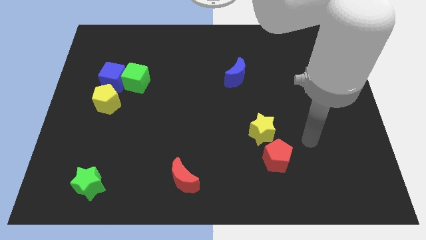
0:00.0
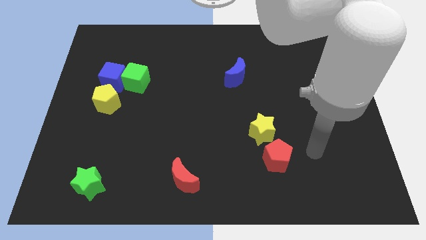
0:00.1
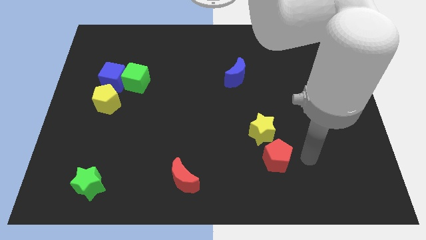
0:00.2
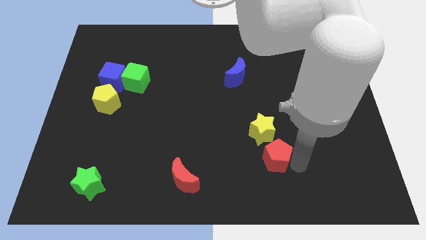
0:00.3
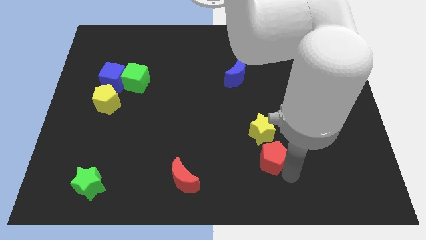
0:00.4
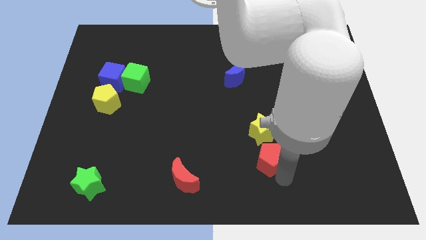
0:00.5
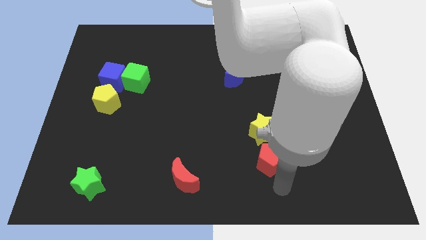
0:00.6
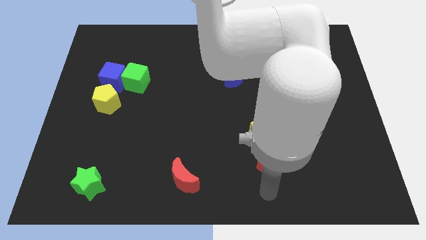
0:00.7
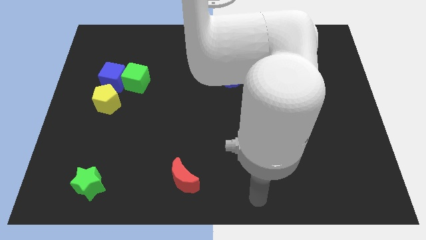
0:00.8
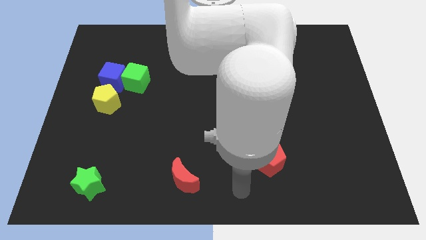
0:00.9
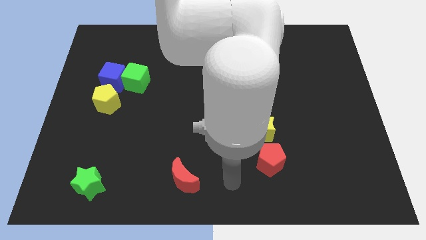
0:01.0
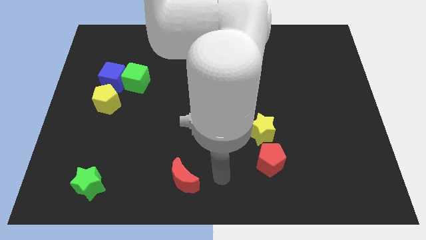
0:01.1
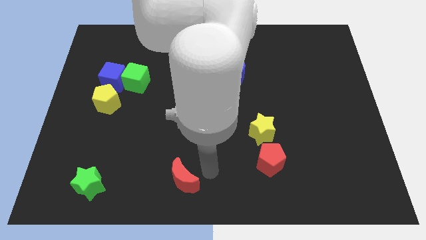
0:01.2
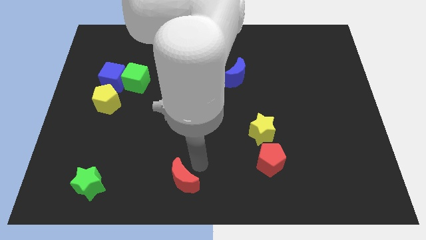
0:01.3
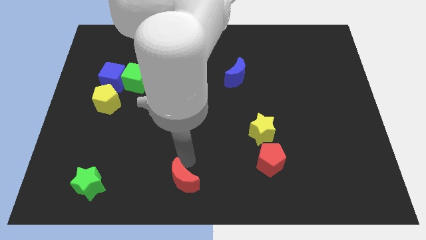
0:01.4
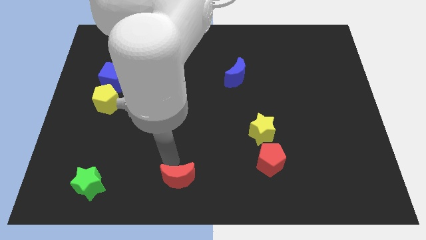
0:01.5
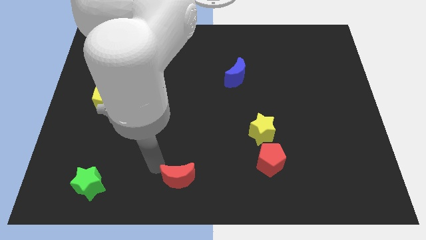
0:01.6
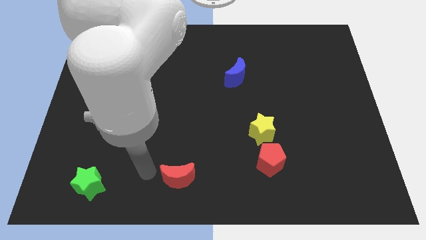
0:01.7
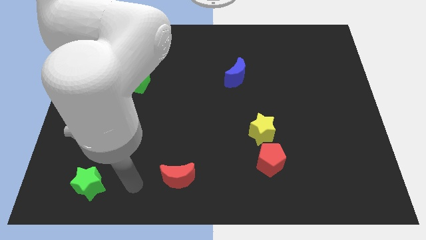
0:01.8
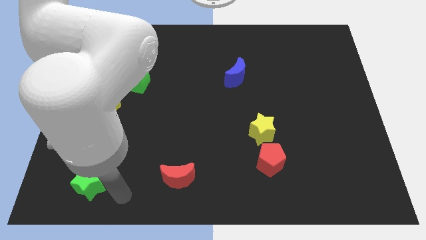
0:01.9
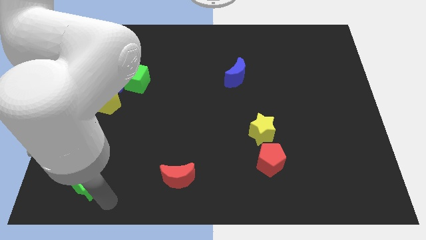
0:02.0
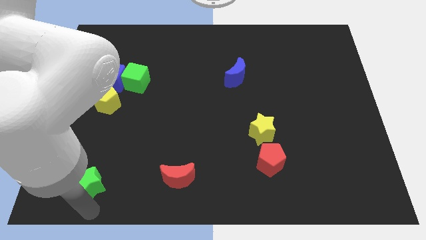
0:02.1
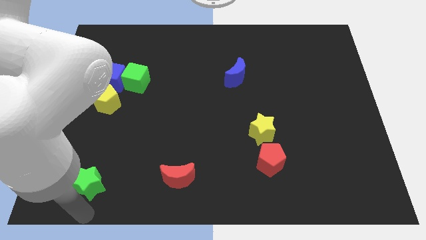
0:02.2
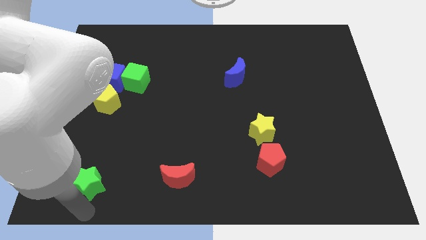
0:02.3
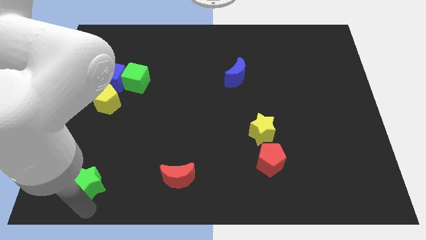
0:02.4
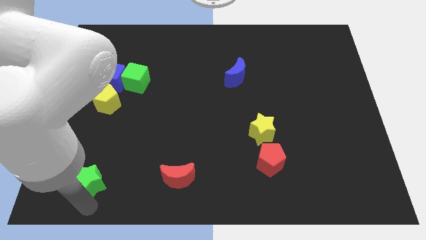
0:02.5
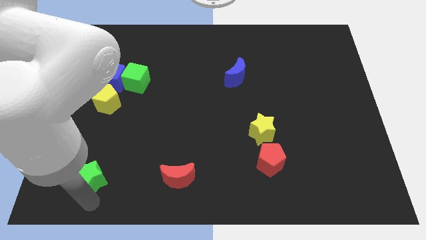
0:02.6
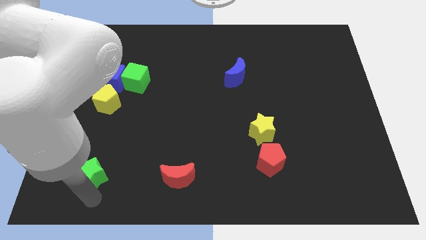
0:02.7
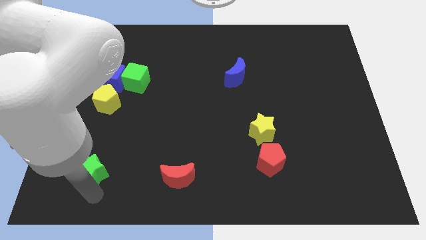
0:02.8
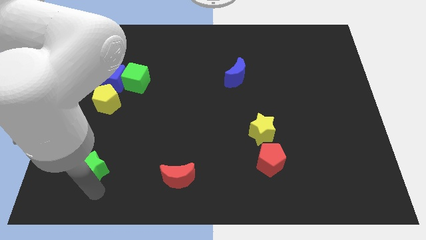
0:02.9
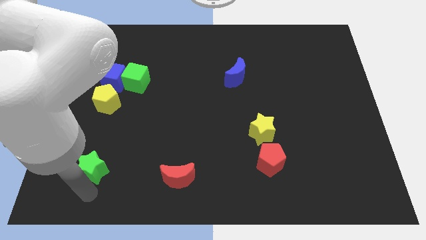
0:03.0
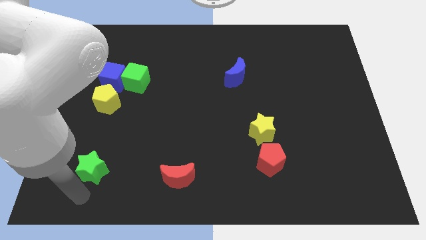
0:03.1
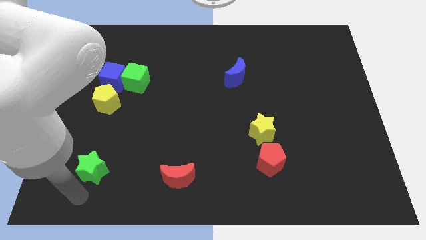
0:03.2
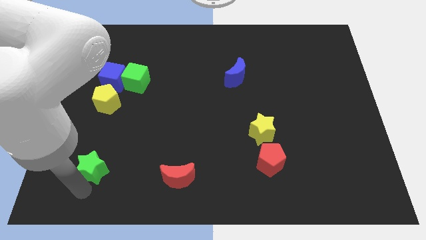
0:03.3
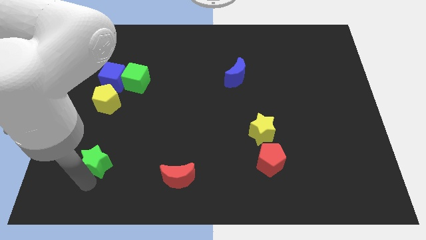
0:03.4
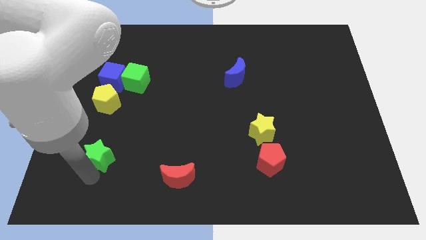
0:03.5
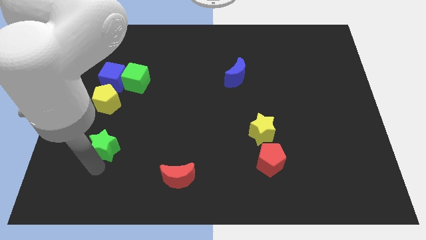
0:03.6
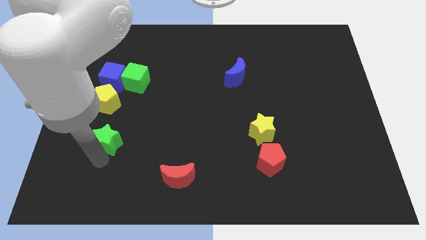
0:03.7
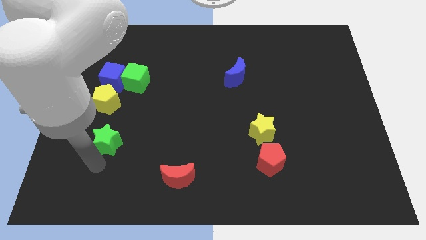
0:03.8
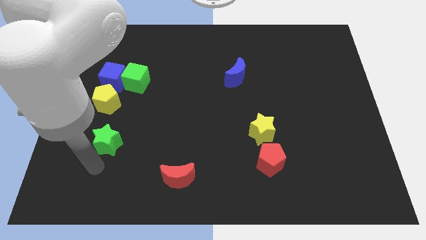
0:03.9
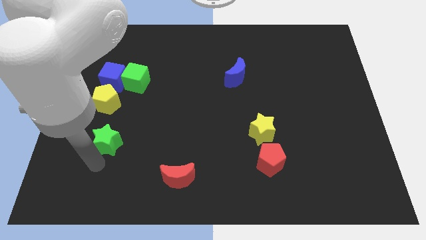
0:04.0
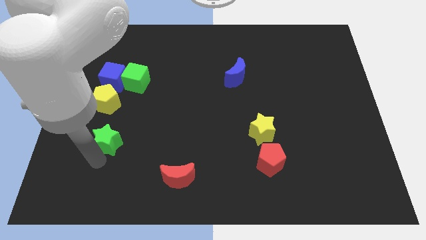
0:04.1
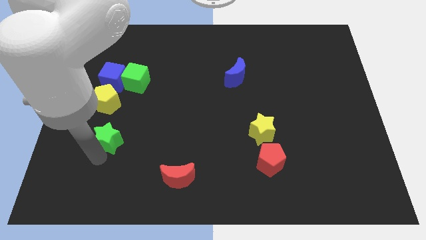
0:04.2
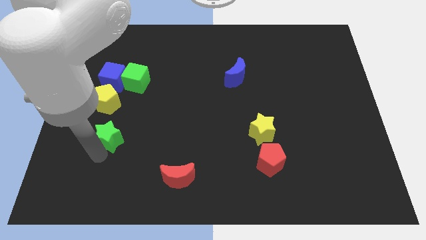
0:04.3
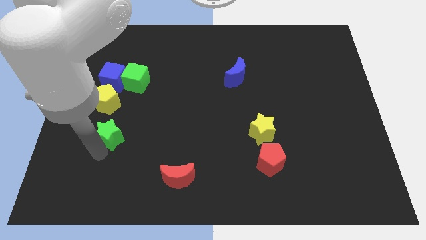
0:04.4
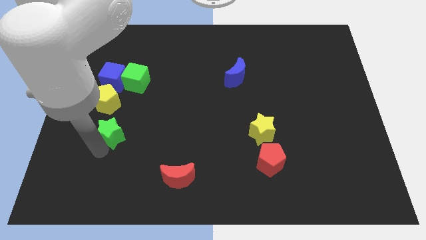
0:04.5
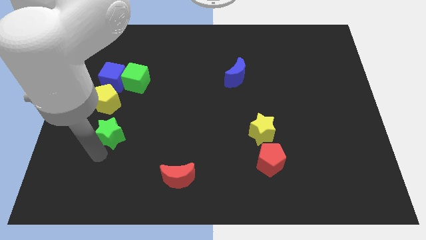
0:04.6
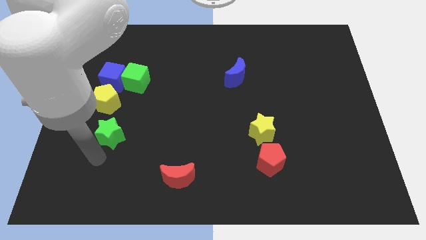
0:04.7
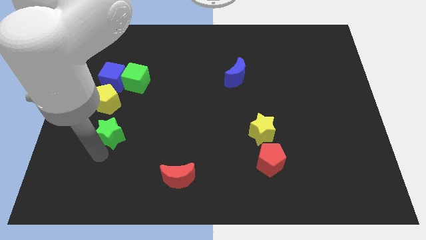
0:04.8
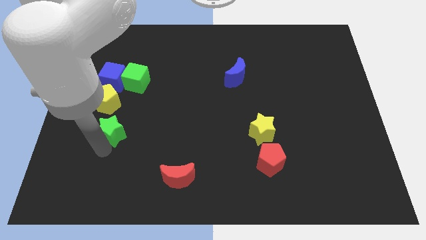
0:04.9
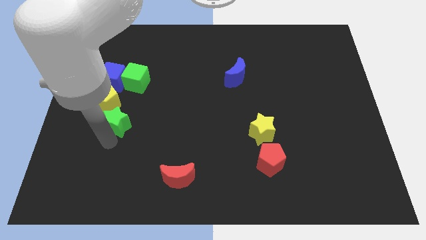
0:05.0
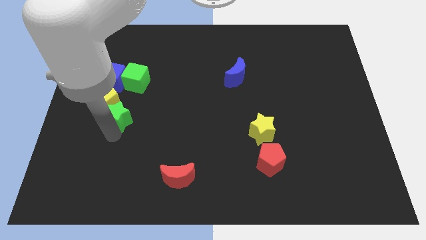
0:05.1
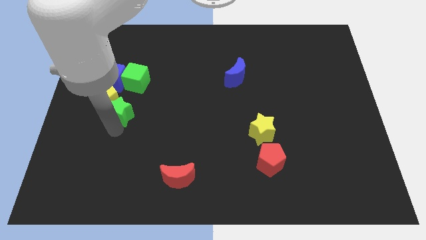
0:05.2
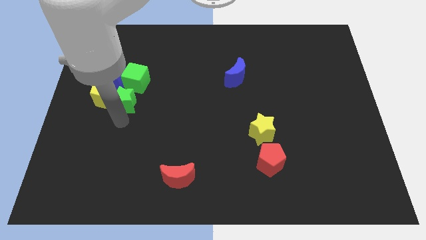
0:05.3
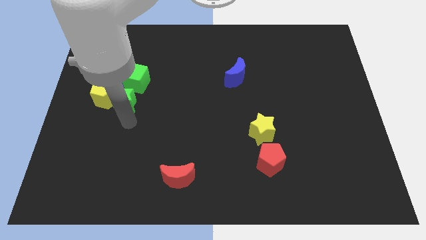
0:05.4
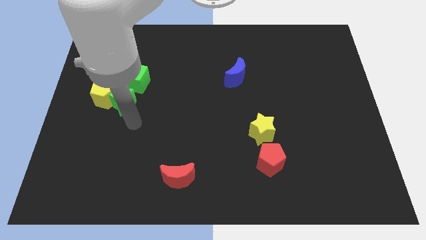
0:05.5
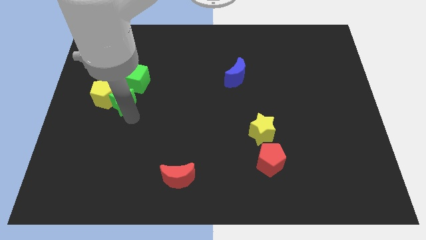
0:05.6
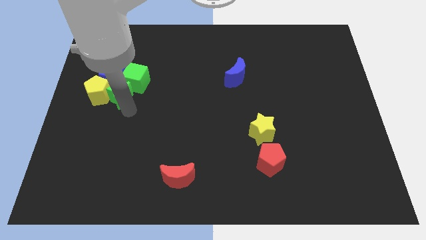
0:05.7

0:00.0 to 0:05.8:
push the green star towards the blue cube

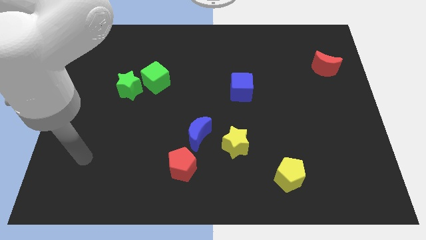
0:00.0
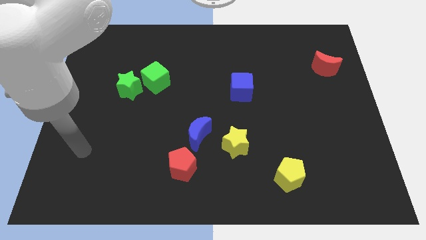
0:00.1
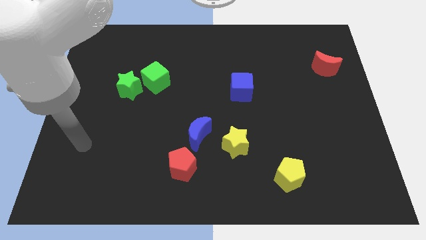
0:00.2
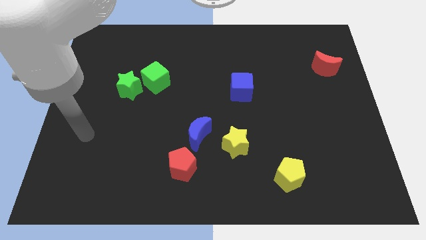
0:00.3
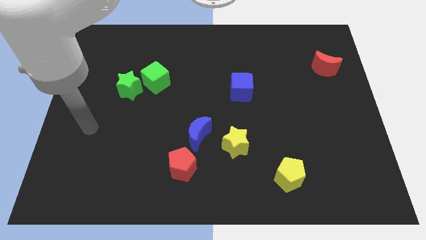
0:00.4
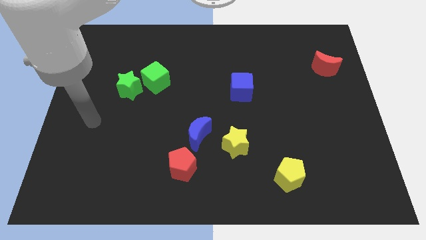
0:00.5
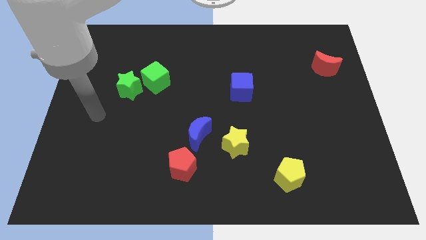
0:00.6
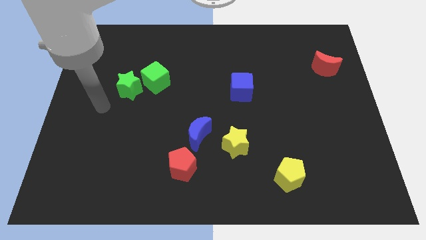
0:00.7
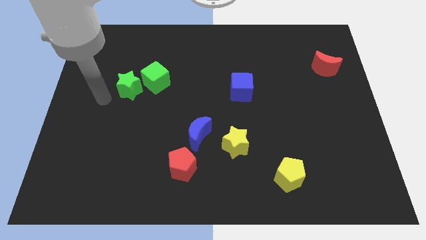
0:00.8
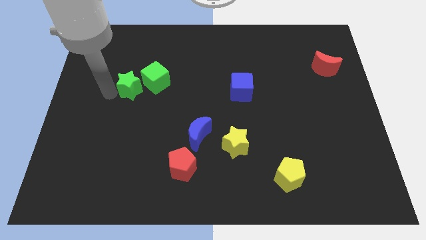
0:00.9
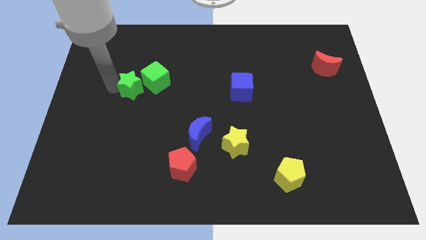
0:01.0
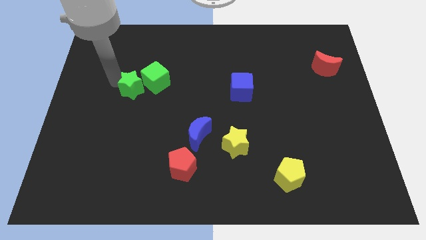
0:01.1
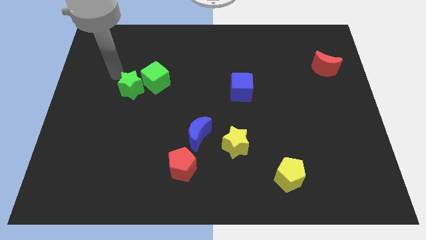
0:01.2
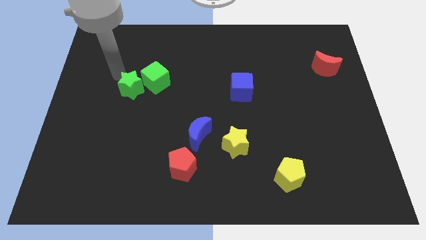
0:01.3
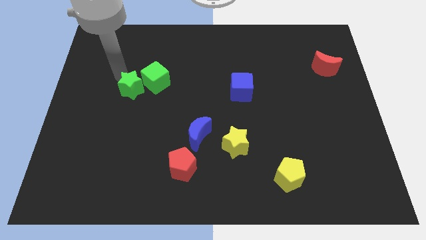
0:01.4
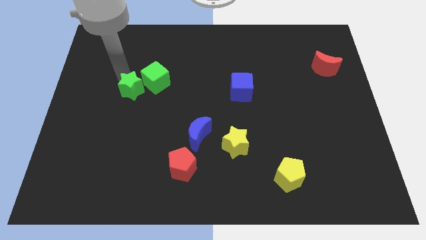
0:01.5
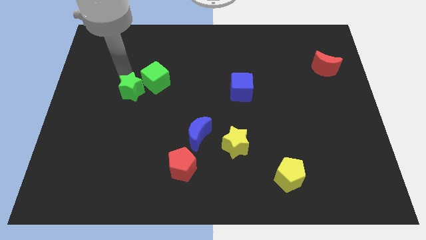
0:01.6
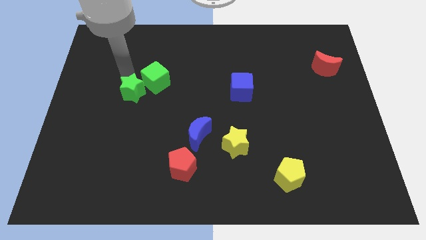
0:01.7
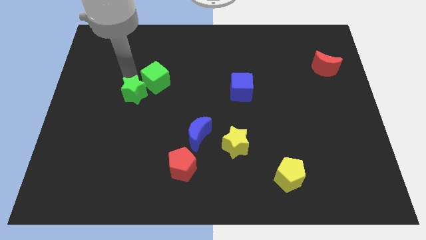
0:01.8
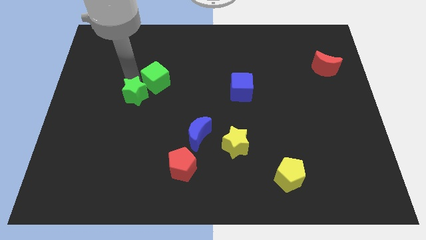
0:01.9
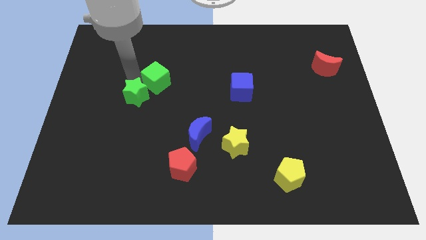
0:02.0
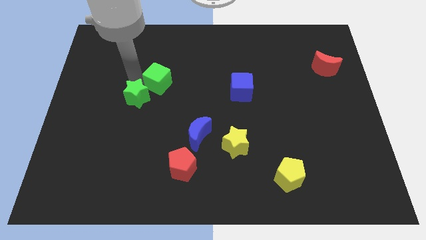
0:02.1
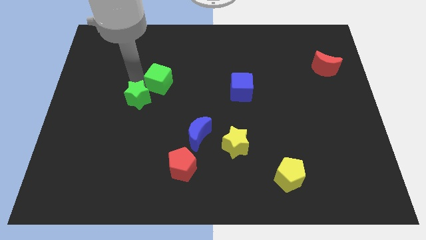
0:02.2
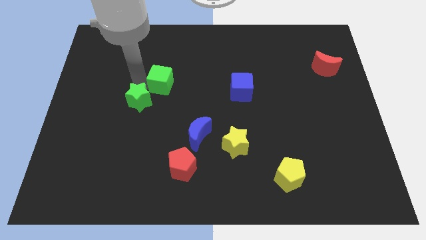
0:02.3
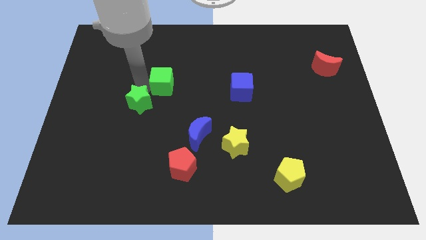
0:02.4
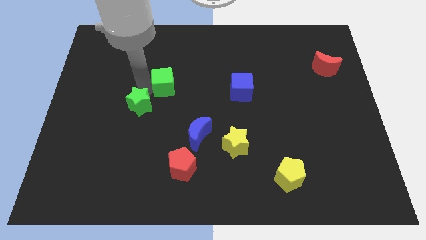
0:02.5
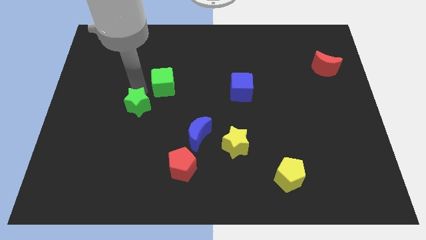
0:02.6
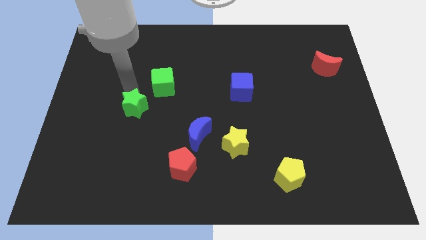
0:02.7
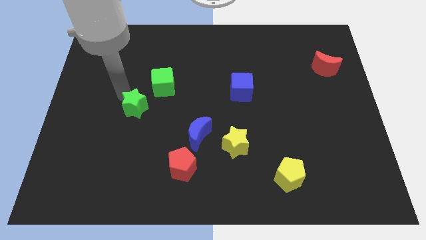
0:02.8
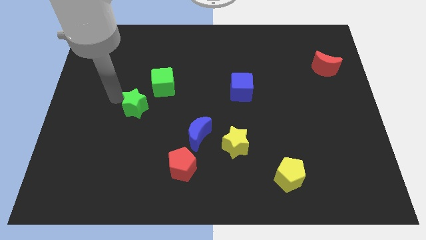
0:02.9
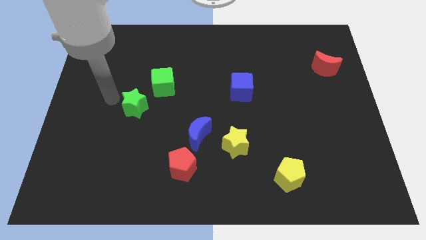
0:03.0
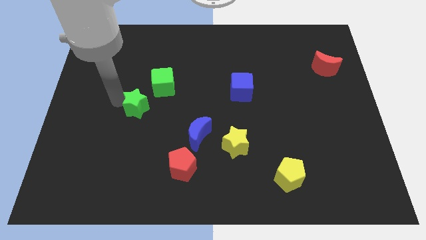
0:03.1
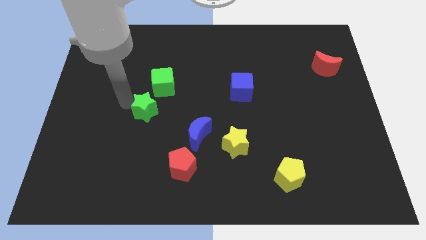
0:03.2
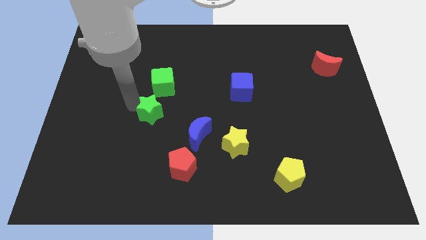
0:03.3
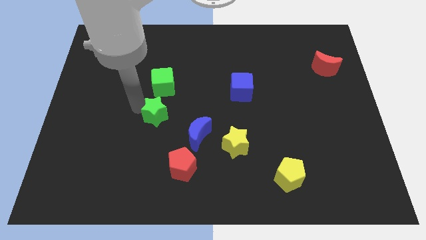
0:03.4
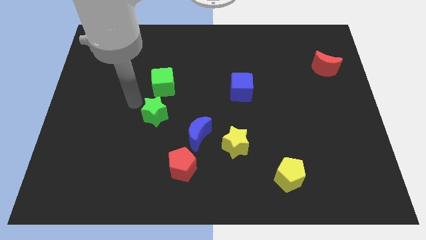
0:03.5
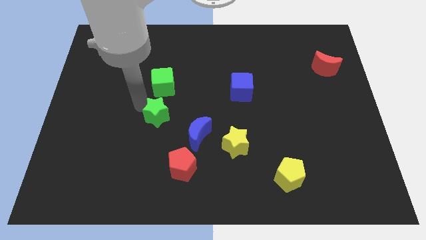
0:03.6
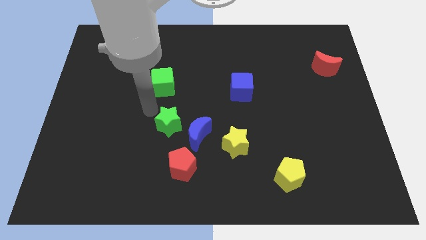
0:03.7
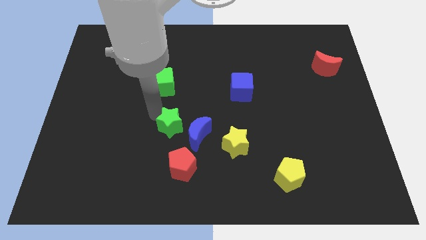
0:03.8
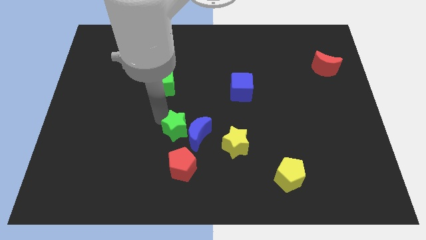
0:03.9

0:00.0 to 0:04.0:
put the green star next to the blue moon
